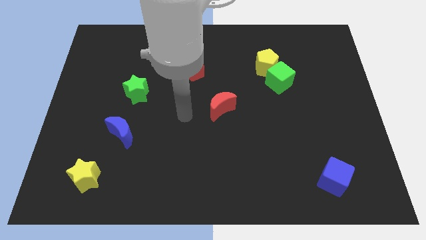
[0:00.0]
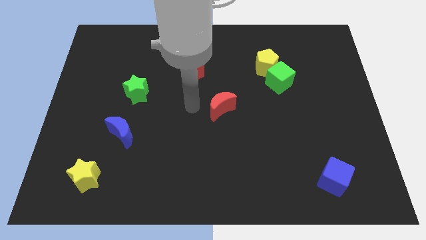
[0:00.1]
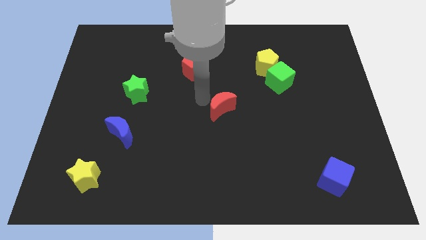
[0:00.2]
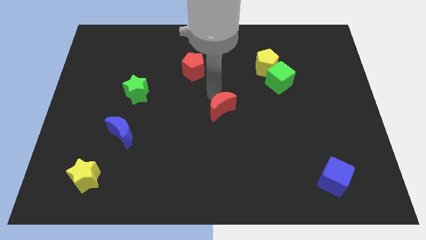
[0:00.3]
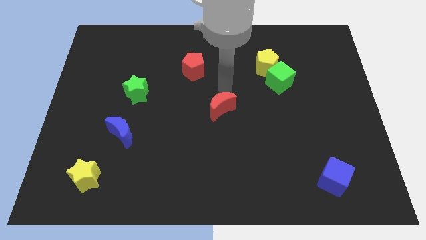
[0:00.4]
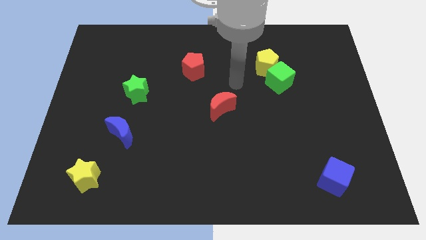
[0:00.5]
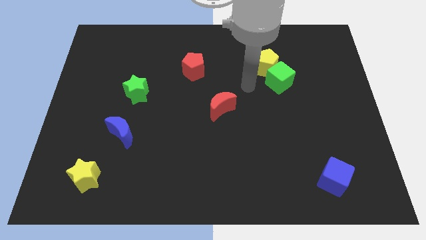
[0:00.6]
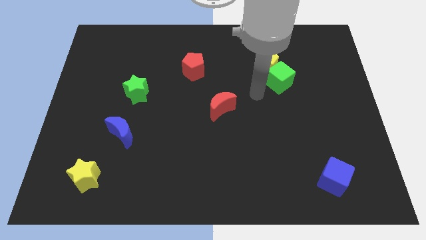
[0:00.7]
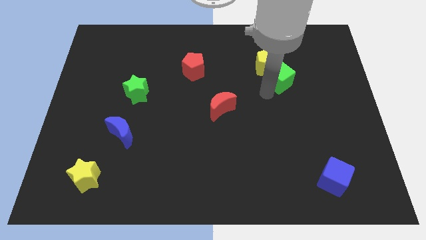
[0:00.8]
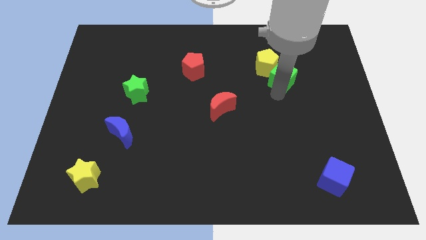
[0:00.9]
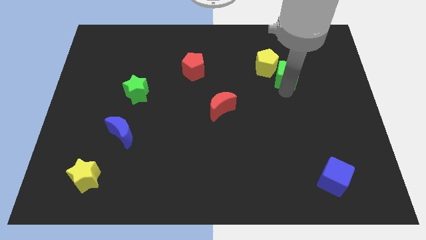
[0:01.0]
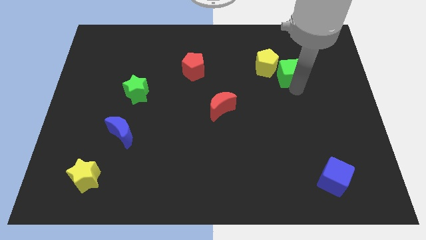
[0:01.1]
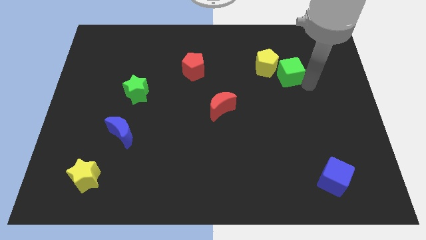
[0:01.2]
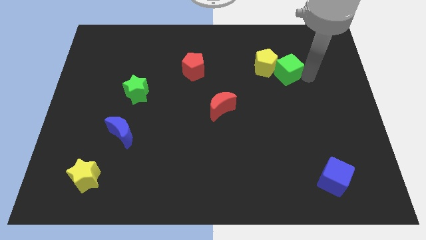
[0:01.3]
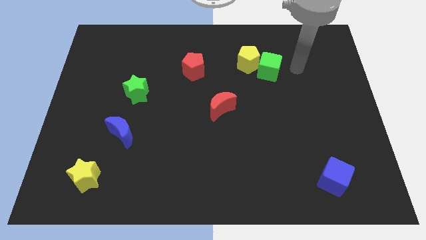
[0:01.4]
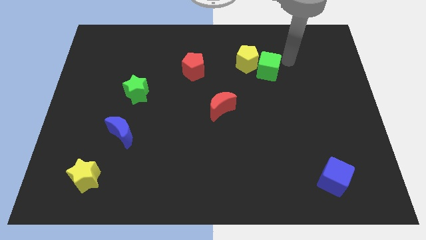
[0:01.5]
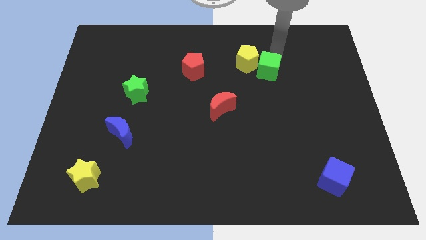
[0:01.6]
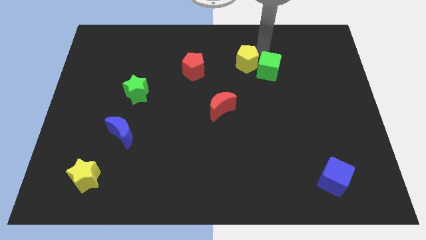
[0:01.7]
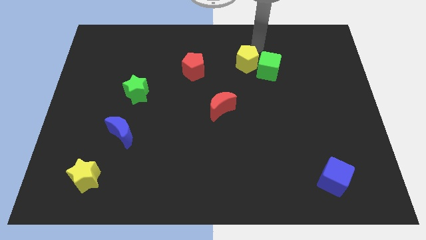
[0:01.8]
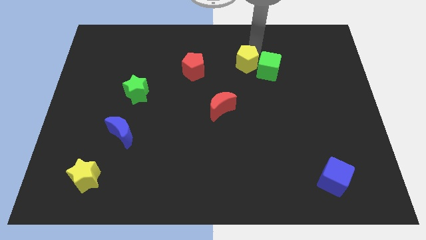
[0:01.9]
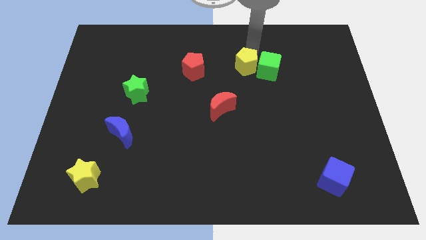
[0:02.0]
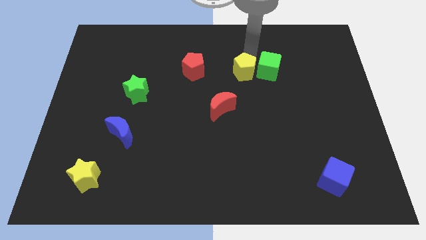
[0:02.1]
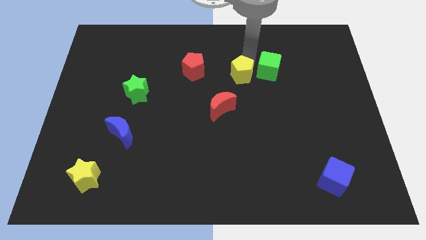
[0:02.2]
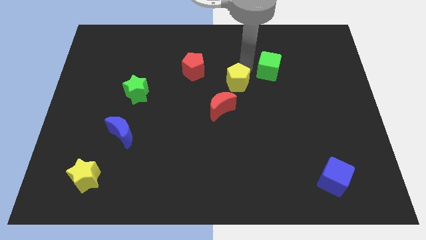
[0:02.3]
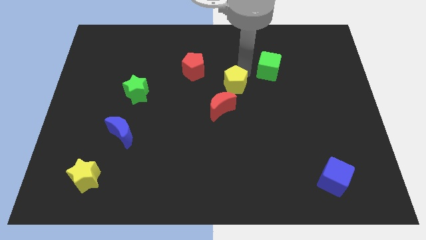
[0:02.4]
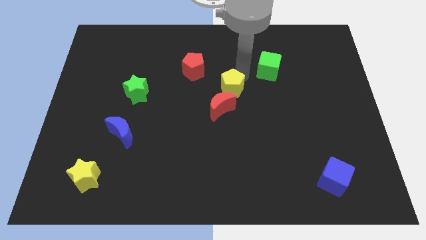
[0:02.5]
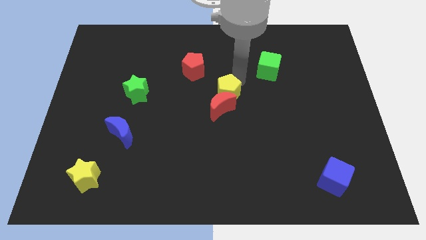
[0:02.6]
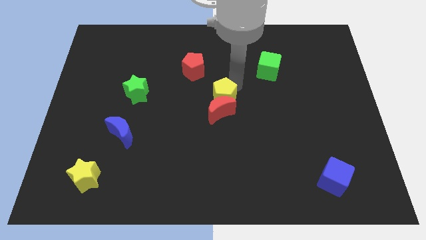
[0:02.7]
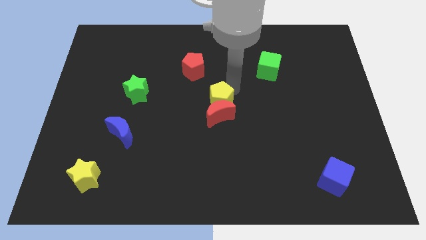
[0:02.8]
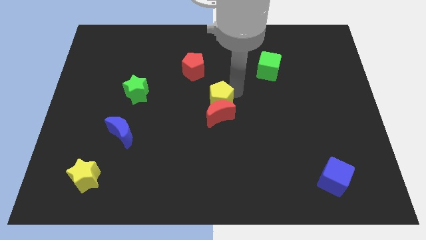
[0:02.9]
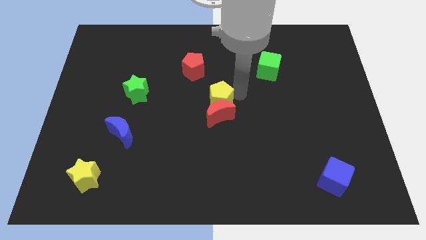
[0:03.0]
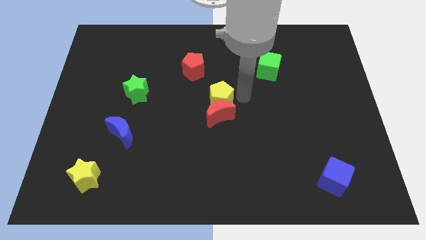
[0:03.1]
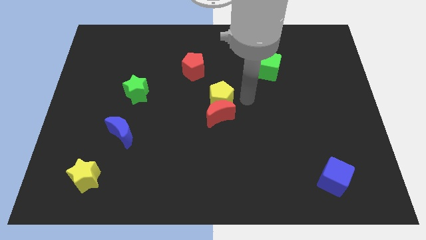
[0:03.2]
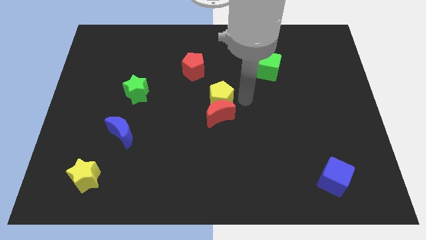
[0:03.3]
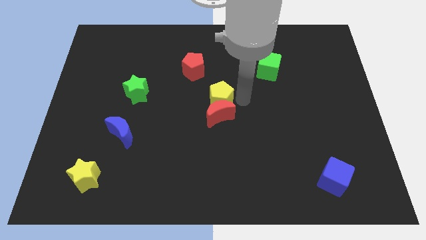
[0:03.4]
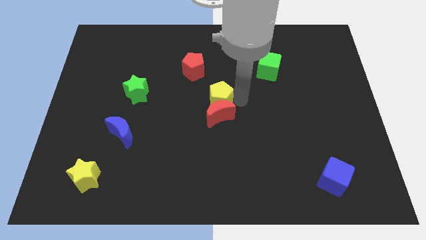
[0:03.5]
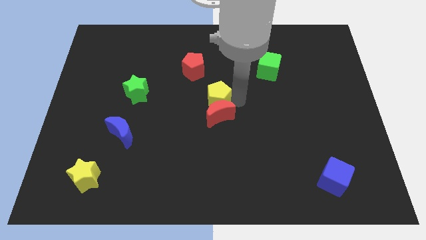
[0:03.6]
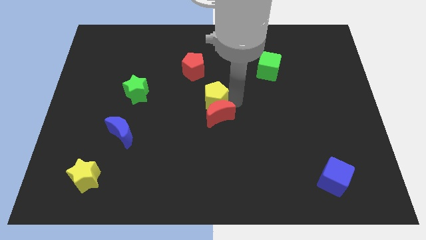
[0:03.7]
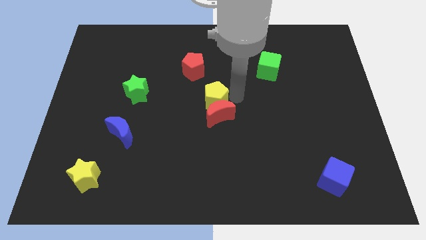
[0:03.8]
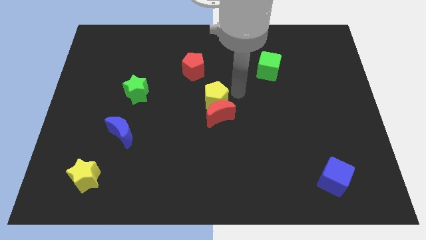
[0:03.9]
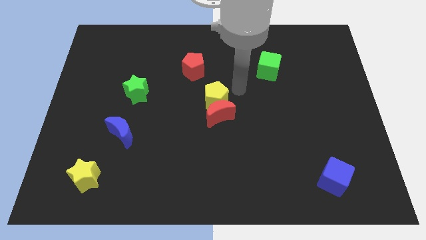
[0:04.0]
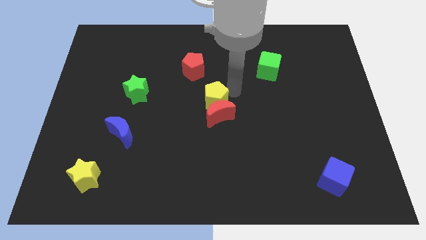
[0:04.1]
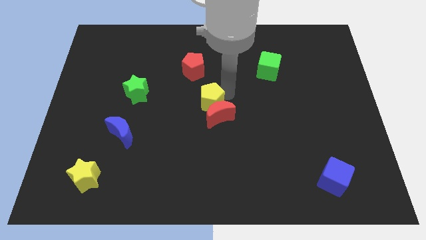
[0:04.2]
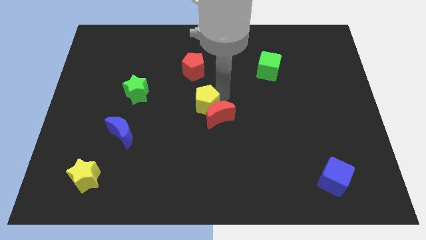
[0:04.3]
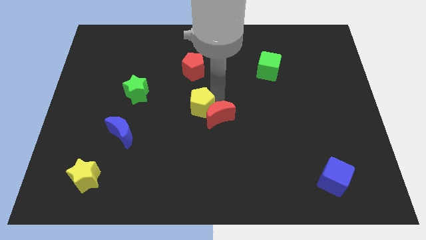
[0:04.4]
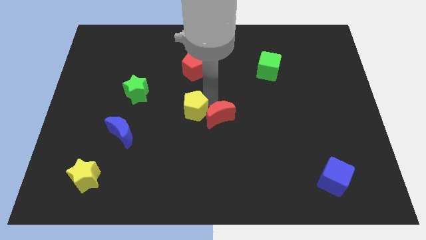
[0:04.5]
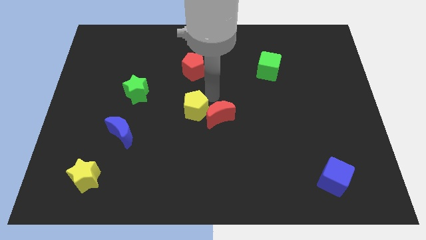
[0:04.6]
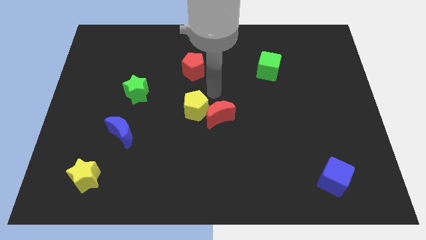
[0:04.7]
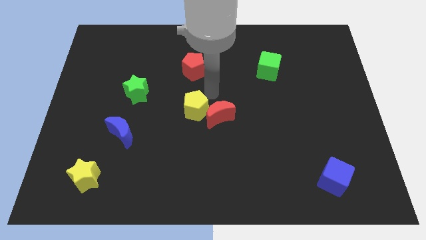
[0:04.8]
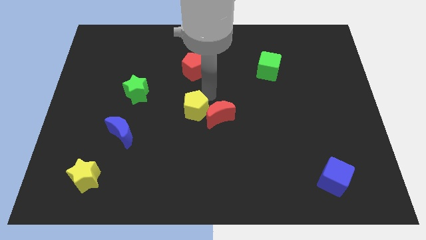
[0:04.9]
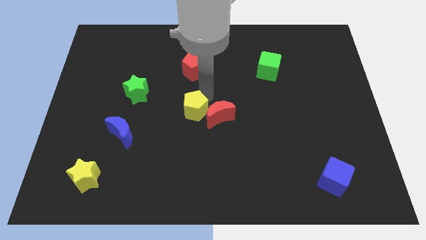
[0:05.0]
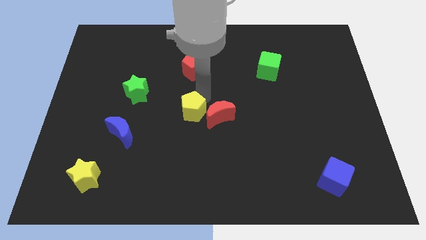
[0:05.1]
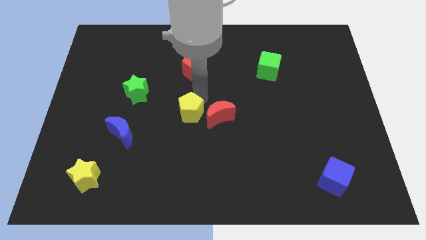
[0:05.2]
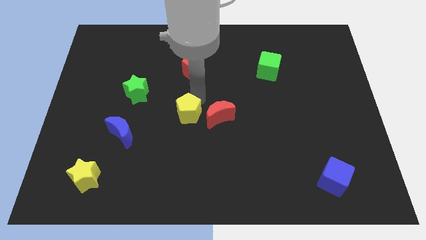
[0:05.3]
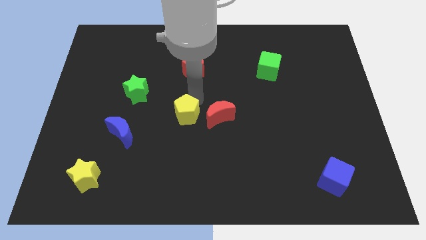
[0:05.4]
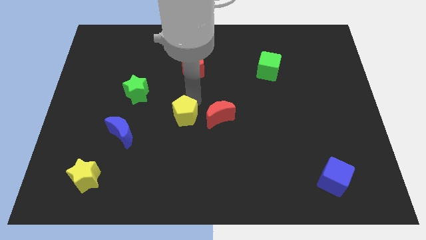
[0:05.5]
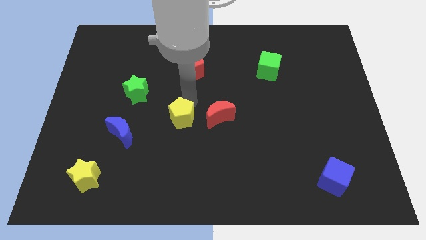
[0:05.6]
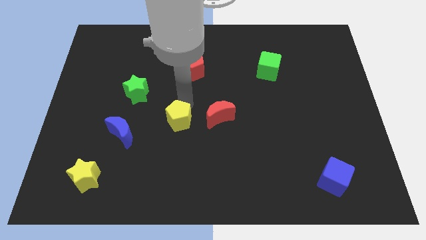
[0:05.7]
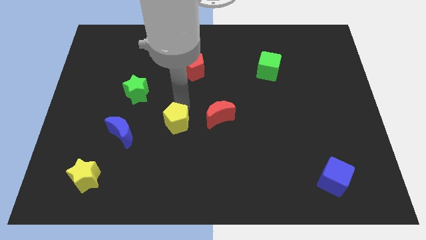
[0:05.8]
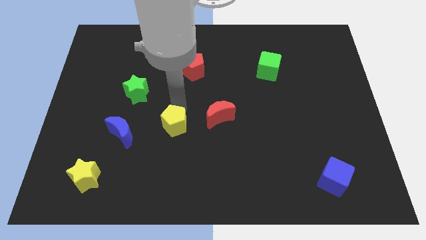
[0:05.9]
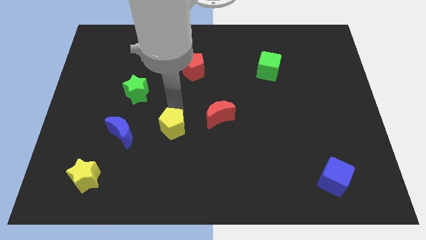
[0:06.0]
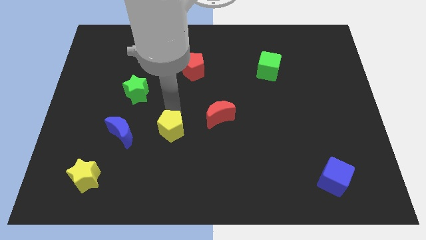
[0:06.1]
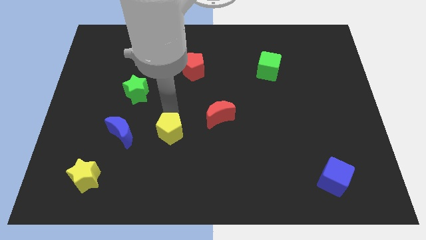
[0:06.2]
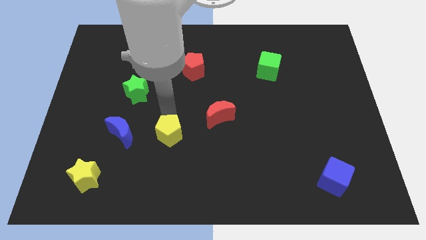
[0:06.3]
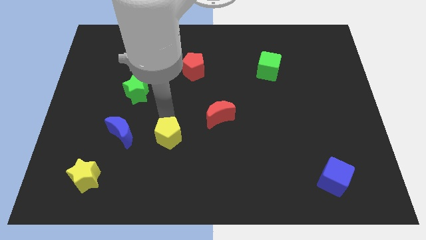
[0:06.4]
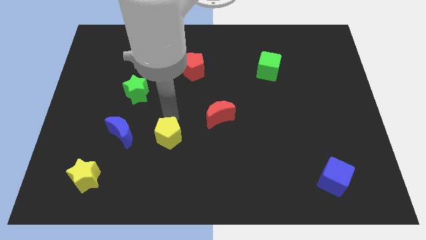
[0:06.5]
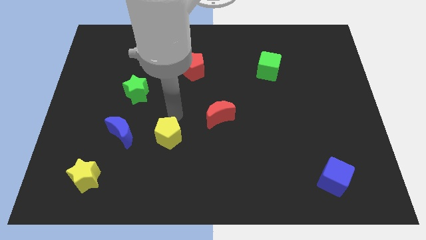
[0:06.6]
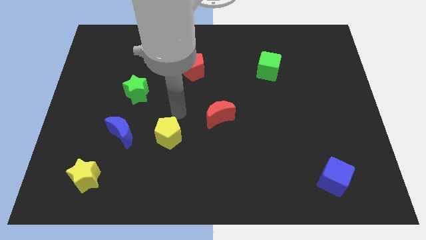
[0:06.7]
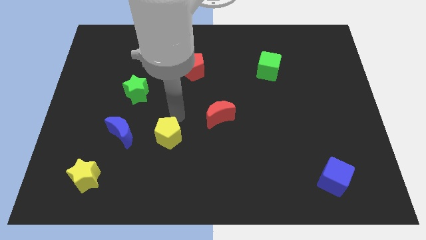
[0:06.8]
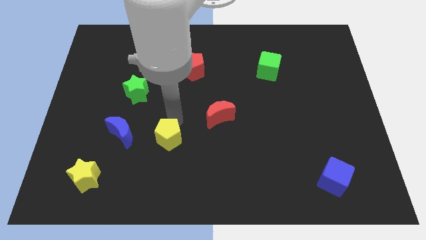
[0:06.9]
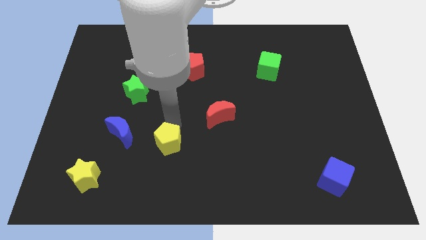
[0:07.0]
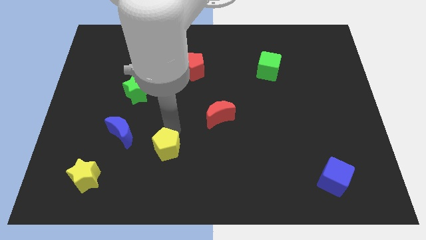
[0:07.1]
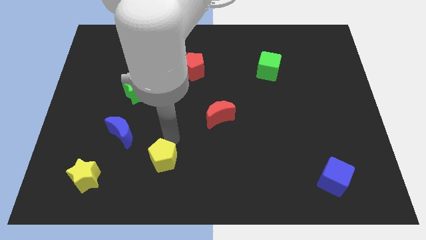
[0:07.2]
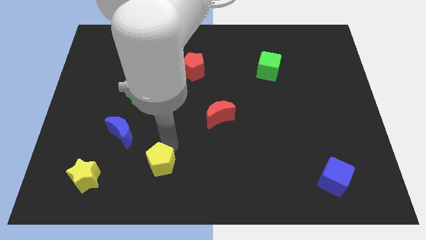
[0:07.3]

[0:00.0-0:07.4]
slide the yellow pentagon to the right of the yellow star
